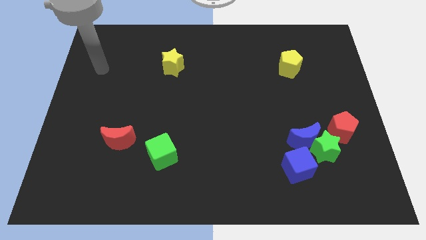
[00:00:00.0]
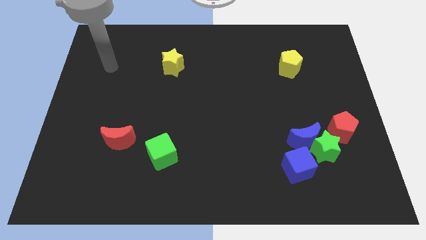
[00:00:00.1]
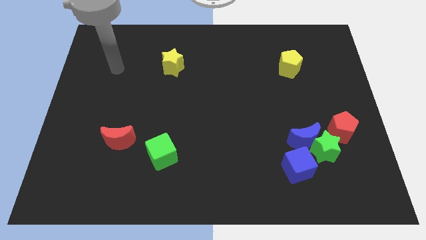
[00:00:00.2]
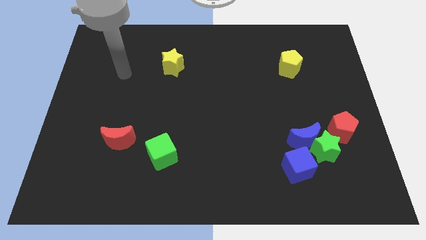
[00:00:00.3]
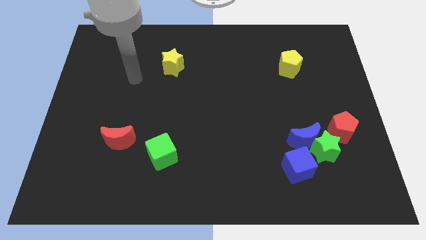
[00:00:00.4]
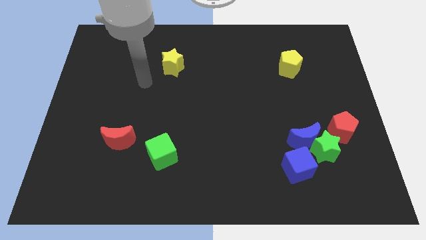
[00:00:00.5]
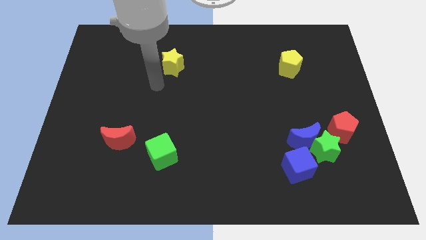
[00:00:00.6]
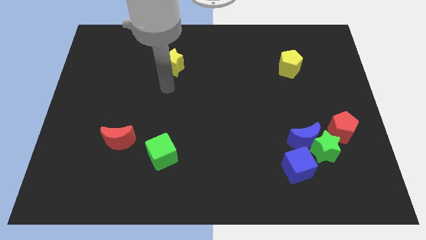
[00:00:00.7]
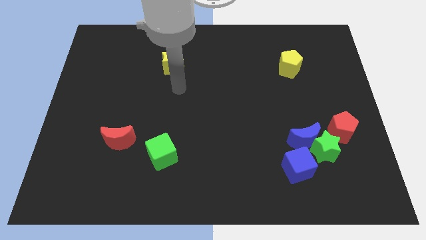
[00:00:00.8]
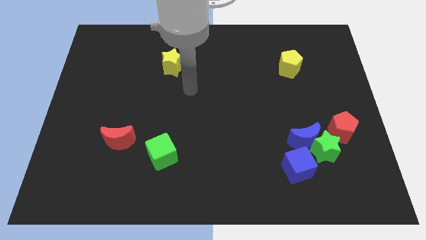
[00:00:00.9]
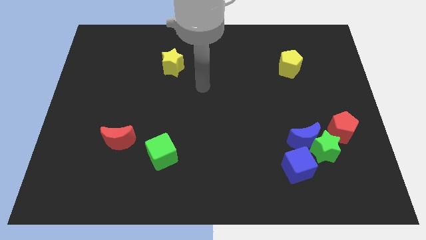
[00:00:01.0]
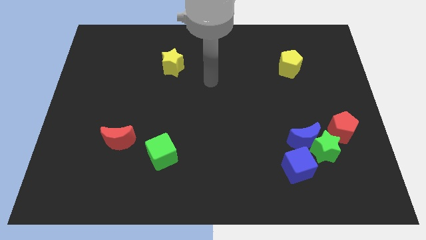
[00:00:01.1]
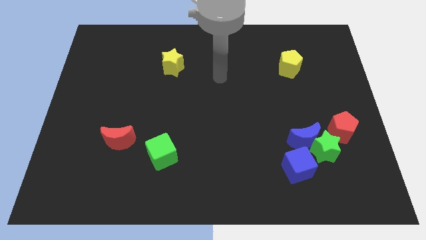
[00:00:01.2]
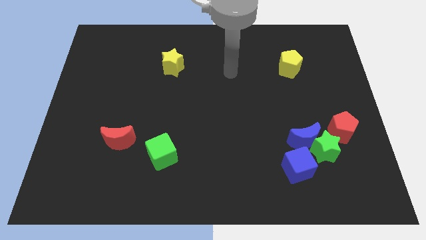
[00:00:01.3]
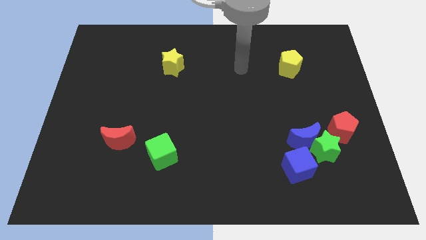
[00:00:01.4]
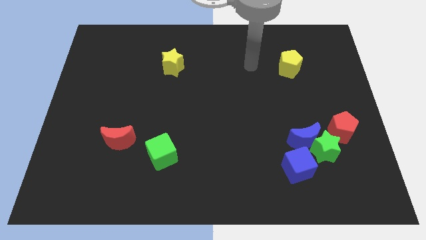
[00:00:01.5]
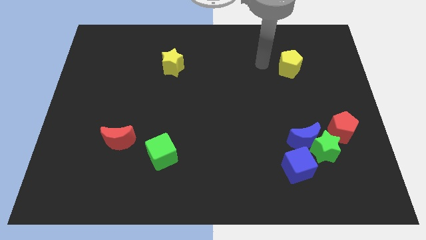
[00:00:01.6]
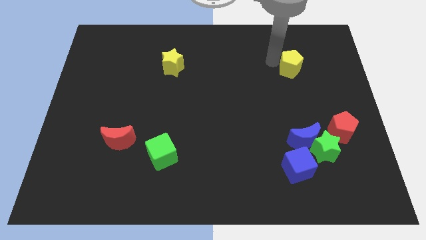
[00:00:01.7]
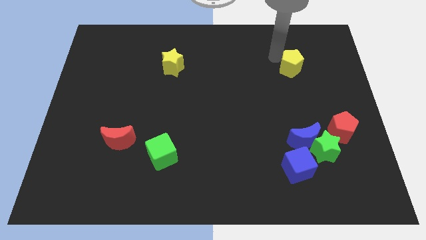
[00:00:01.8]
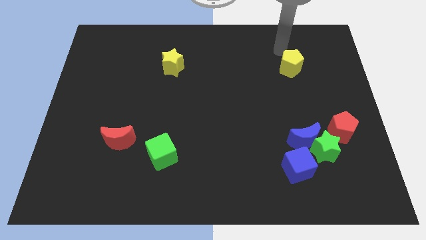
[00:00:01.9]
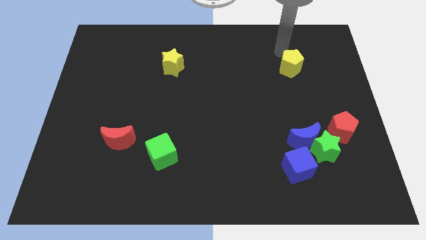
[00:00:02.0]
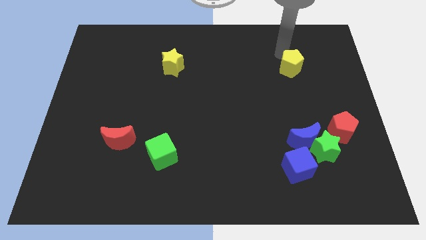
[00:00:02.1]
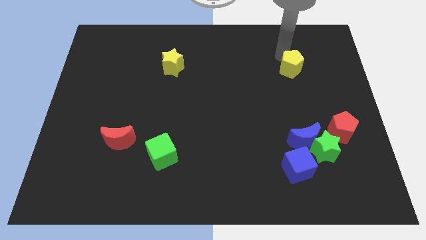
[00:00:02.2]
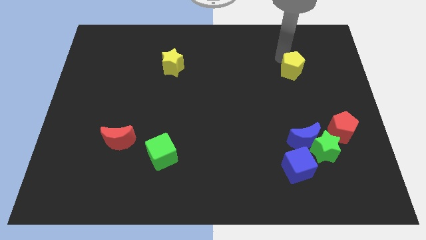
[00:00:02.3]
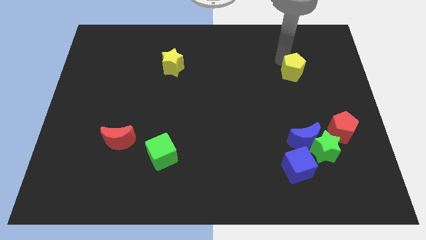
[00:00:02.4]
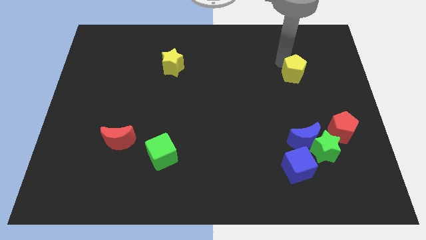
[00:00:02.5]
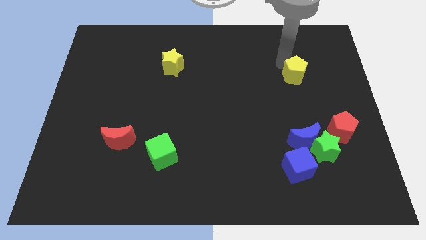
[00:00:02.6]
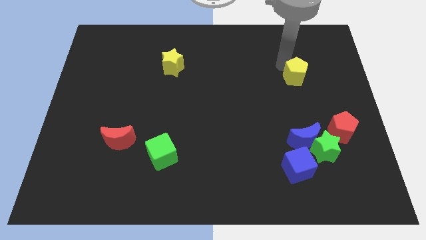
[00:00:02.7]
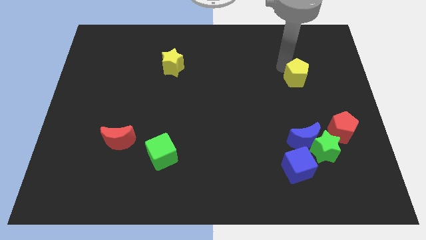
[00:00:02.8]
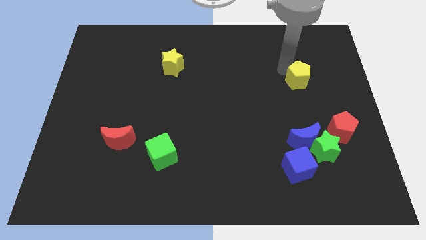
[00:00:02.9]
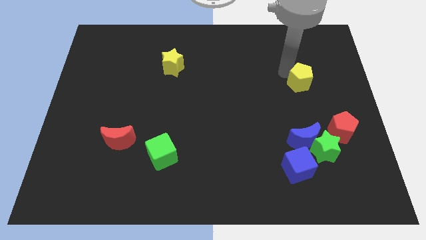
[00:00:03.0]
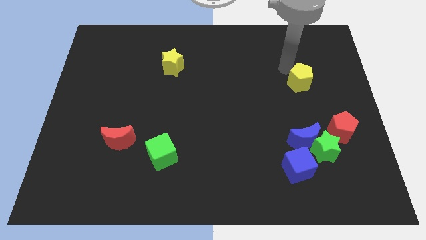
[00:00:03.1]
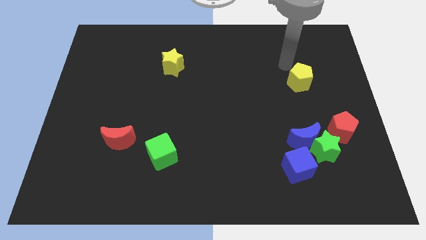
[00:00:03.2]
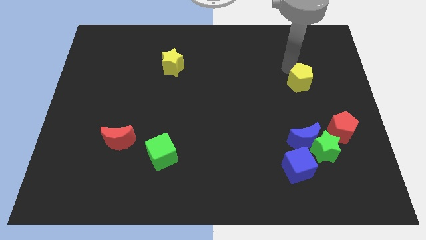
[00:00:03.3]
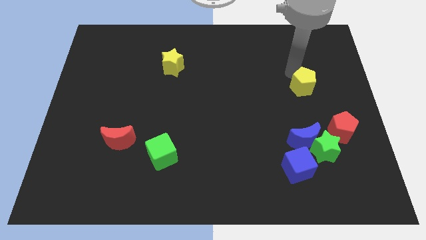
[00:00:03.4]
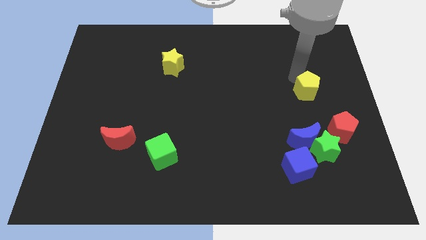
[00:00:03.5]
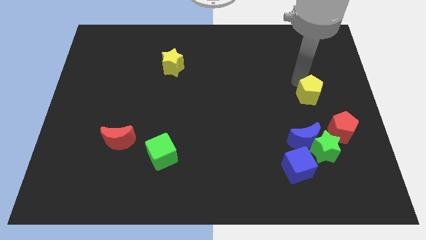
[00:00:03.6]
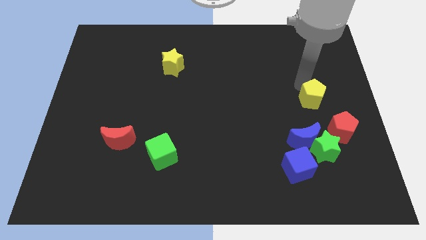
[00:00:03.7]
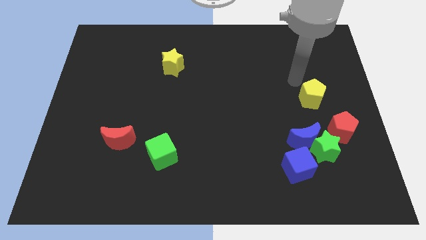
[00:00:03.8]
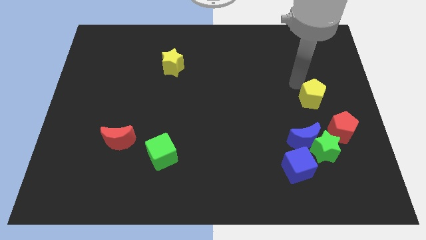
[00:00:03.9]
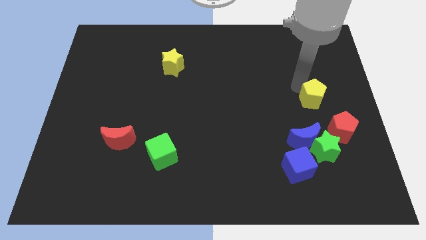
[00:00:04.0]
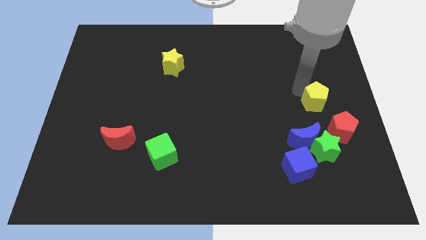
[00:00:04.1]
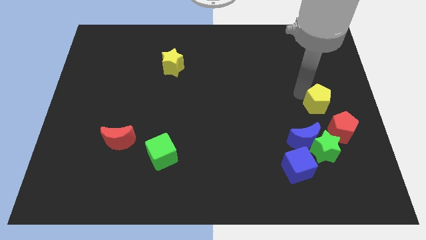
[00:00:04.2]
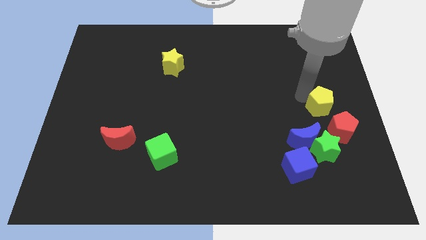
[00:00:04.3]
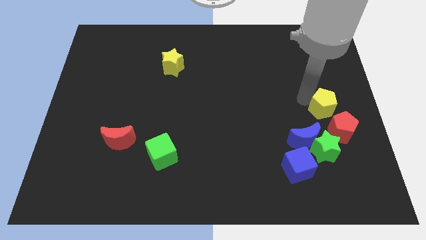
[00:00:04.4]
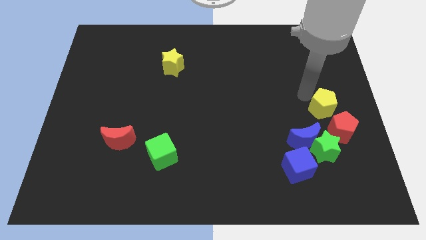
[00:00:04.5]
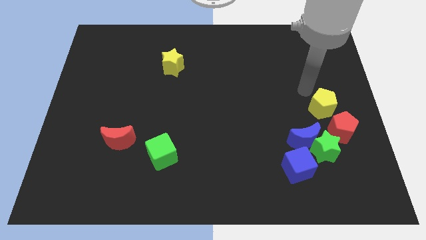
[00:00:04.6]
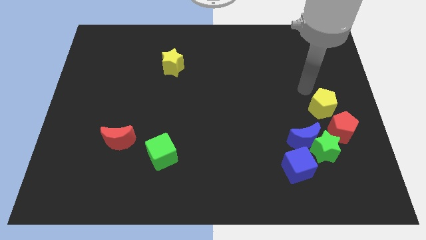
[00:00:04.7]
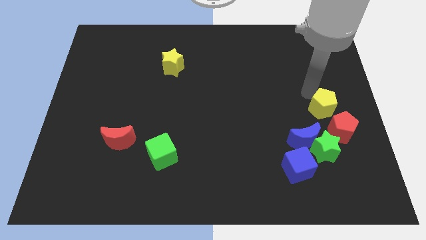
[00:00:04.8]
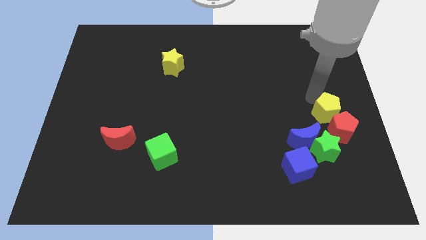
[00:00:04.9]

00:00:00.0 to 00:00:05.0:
put the yellow pentagon close to the red pentagon

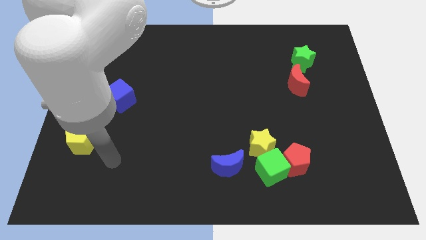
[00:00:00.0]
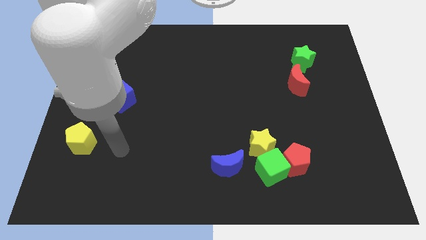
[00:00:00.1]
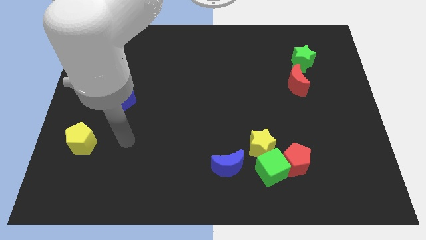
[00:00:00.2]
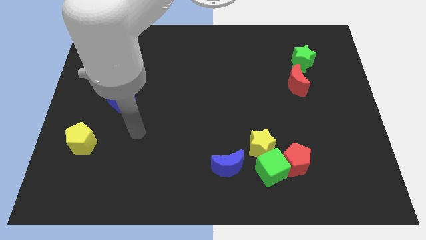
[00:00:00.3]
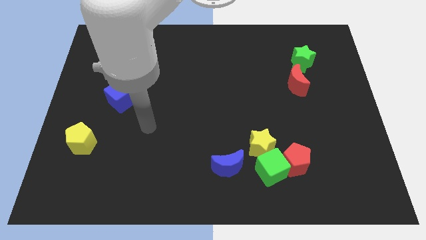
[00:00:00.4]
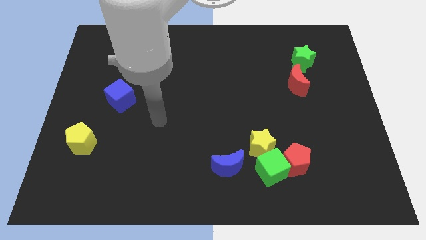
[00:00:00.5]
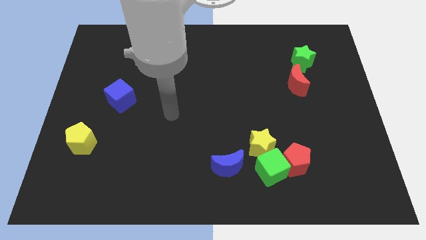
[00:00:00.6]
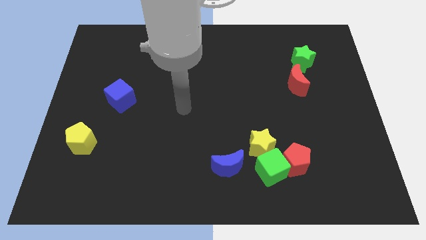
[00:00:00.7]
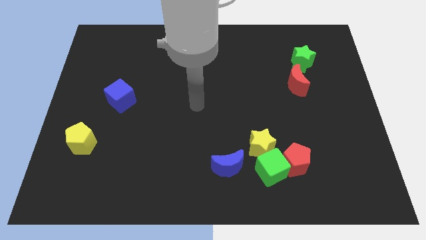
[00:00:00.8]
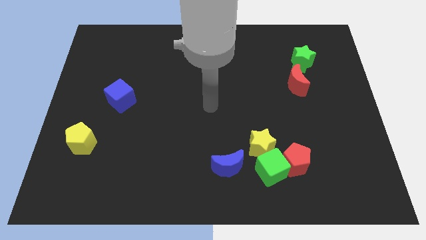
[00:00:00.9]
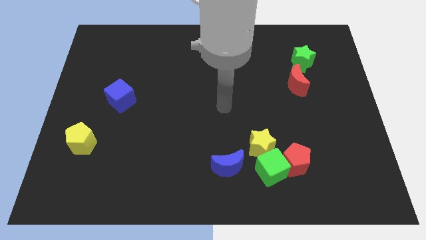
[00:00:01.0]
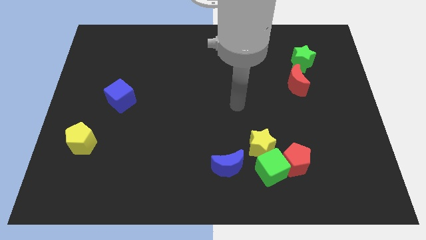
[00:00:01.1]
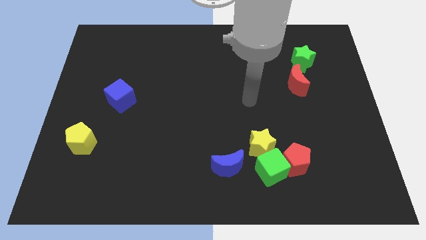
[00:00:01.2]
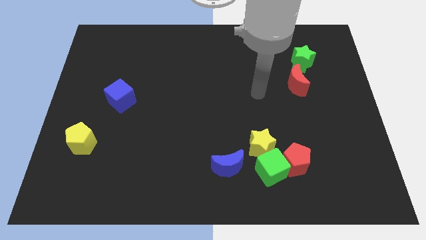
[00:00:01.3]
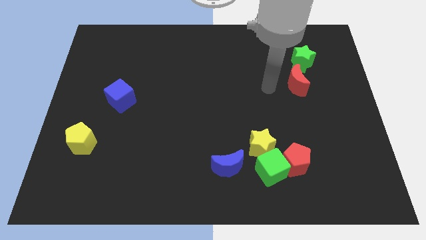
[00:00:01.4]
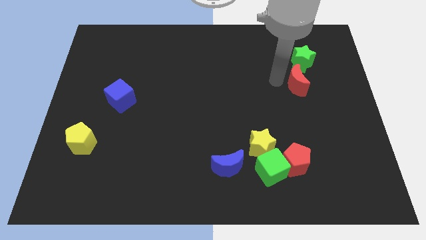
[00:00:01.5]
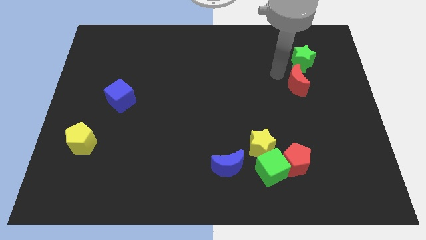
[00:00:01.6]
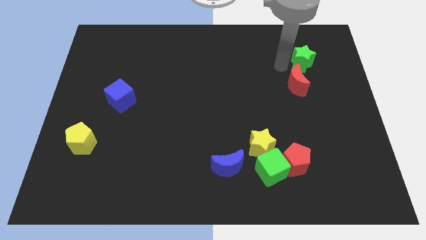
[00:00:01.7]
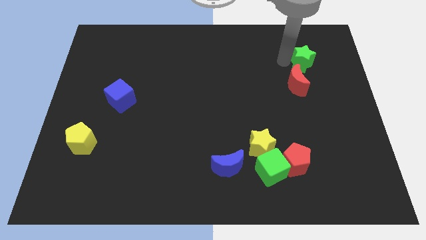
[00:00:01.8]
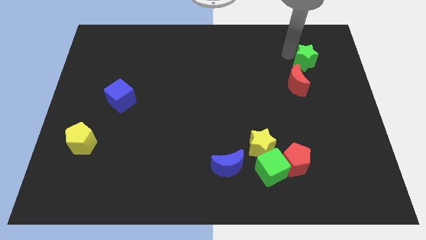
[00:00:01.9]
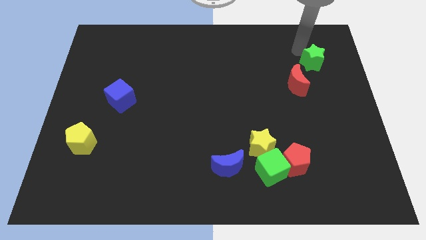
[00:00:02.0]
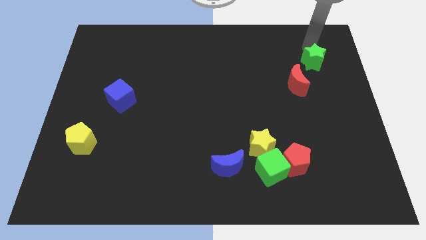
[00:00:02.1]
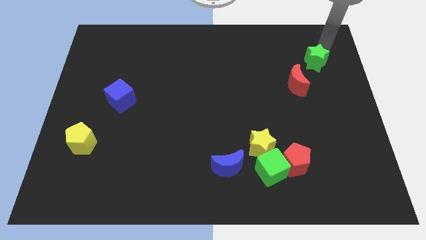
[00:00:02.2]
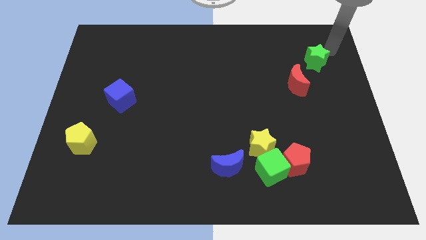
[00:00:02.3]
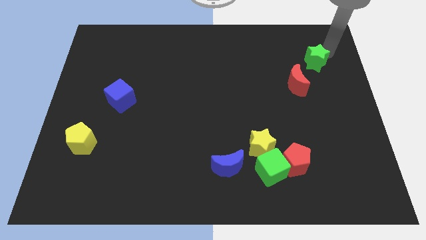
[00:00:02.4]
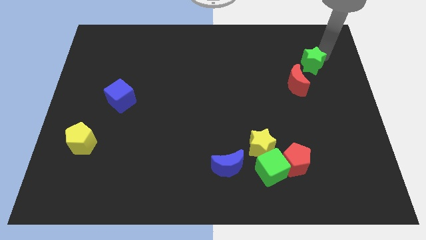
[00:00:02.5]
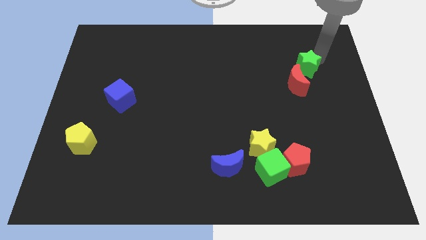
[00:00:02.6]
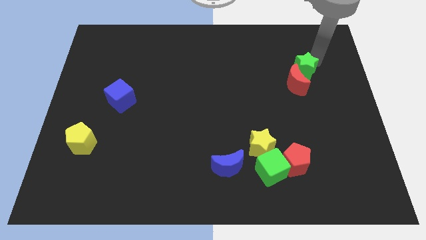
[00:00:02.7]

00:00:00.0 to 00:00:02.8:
slide the green star close to the red moon

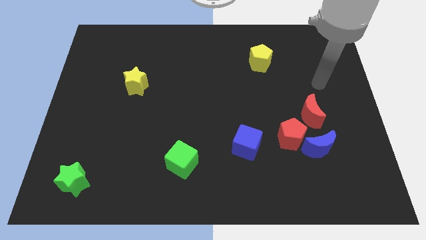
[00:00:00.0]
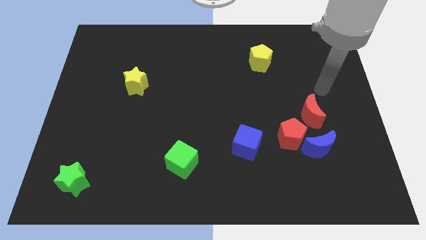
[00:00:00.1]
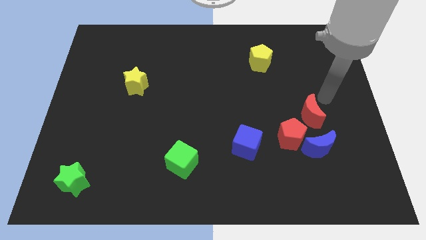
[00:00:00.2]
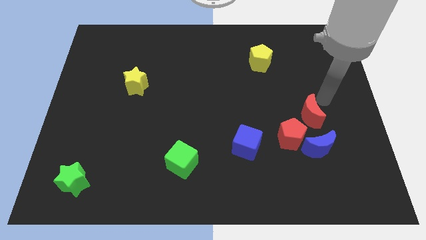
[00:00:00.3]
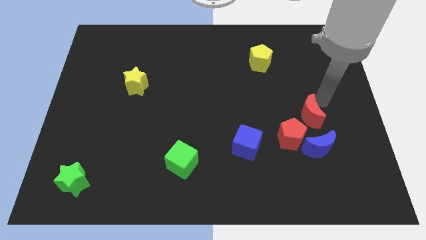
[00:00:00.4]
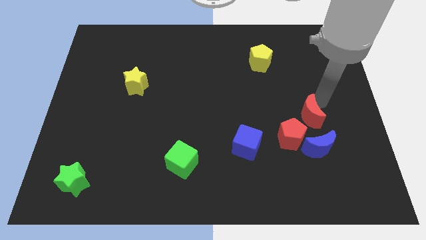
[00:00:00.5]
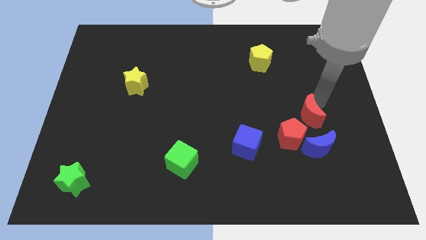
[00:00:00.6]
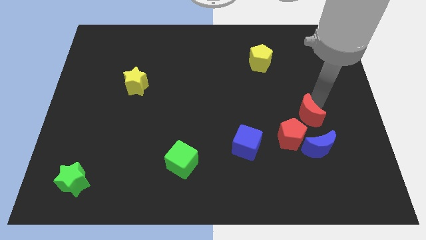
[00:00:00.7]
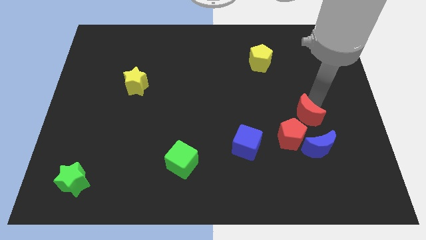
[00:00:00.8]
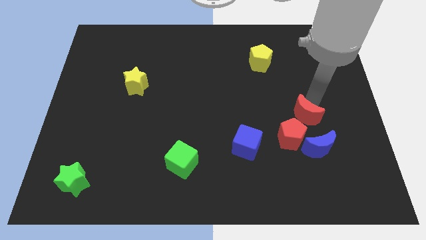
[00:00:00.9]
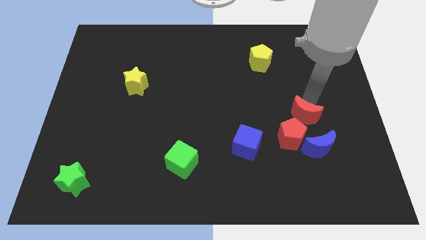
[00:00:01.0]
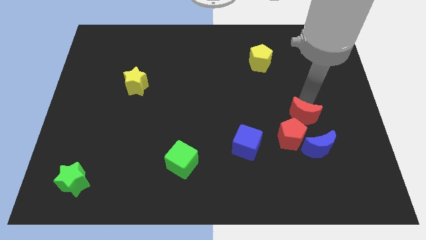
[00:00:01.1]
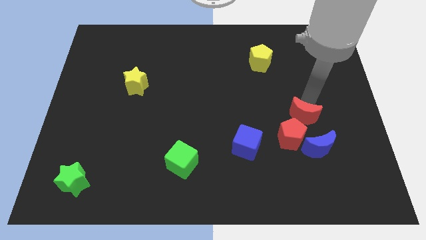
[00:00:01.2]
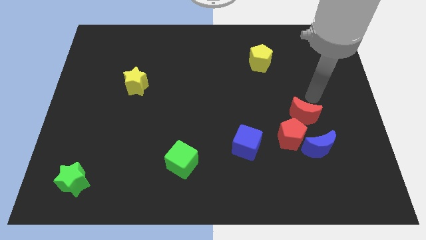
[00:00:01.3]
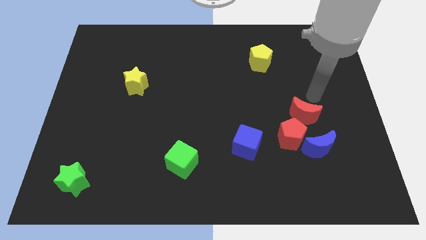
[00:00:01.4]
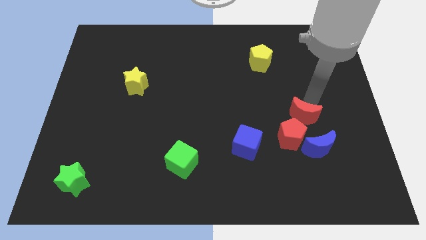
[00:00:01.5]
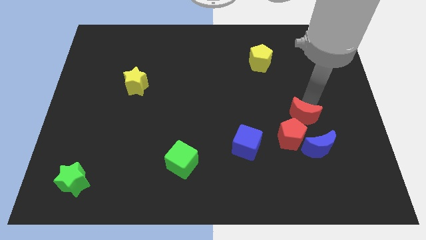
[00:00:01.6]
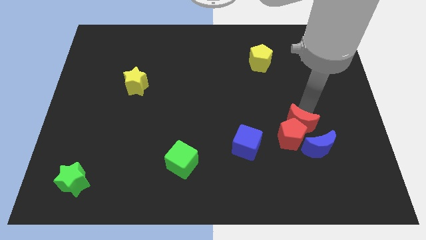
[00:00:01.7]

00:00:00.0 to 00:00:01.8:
move the red moon towards the red pentagon
